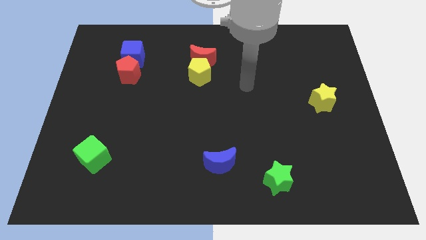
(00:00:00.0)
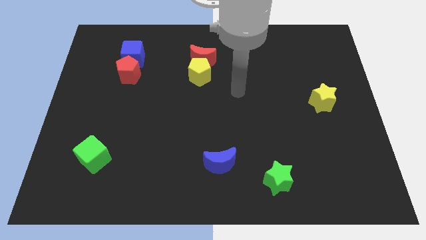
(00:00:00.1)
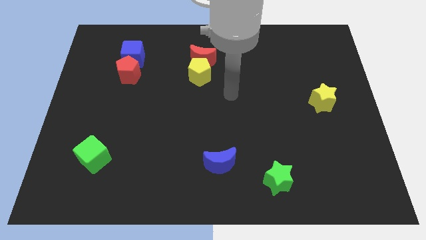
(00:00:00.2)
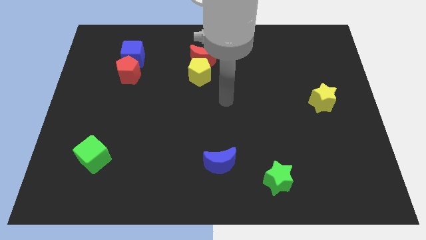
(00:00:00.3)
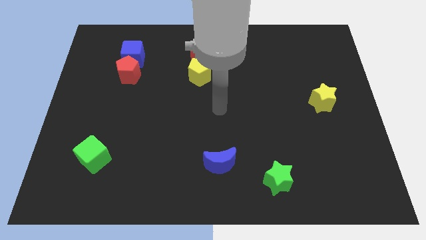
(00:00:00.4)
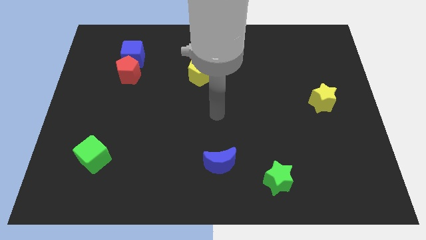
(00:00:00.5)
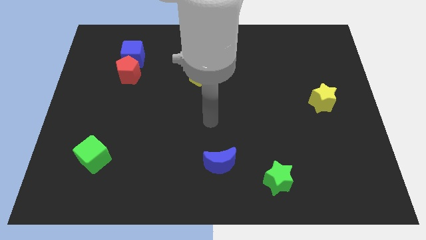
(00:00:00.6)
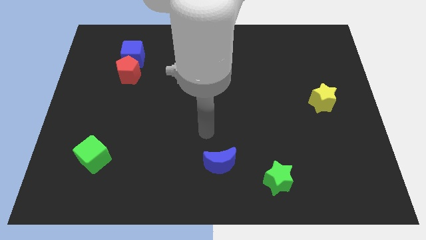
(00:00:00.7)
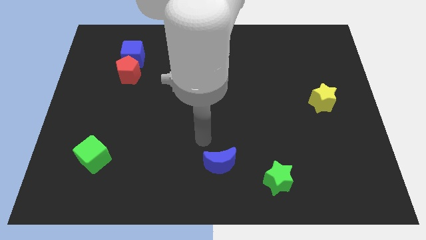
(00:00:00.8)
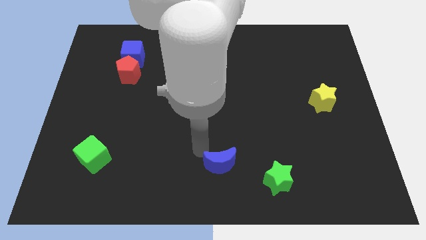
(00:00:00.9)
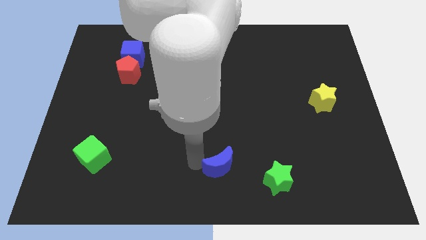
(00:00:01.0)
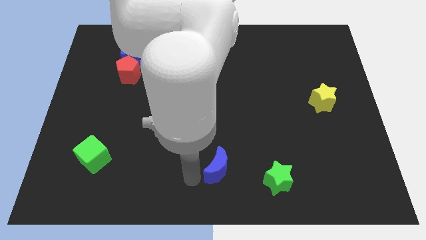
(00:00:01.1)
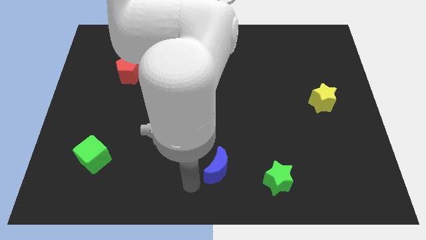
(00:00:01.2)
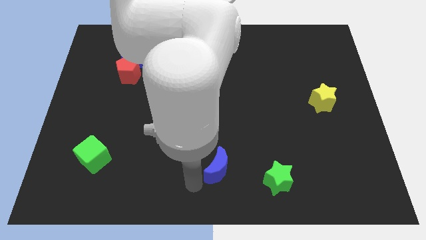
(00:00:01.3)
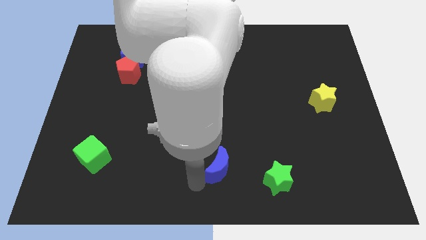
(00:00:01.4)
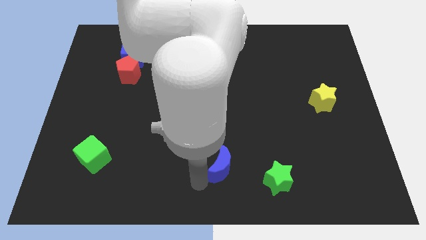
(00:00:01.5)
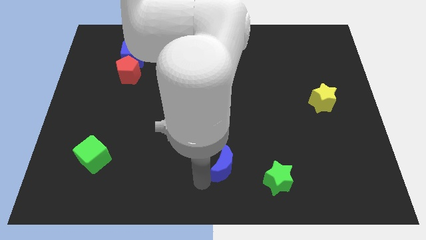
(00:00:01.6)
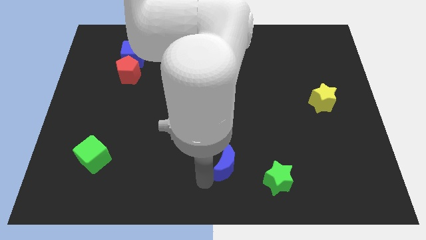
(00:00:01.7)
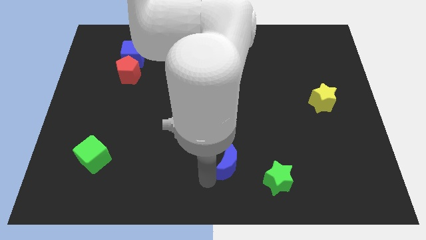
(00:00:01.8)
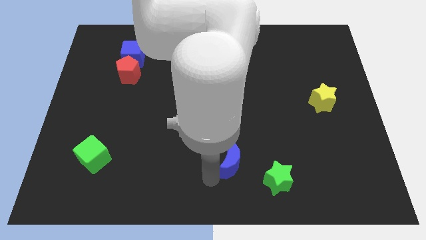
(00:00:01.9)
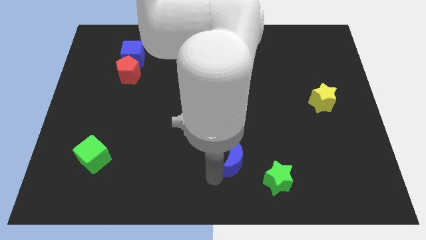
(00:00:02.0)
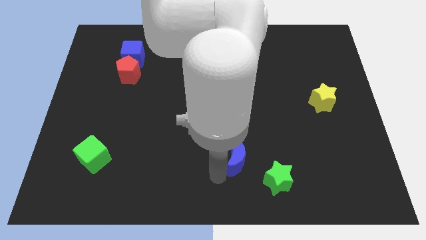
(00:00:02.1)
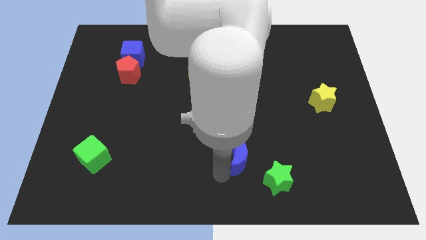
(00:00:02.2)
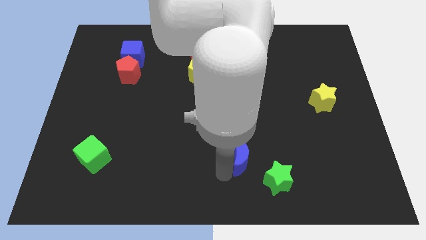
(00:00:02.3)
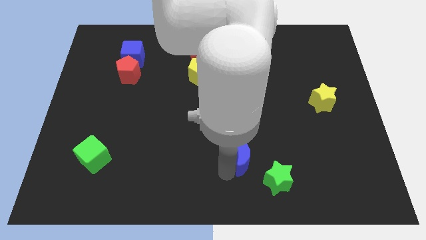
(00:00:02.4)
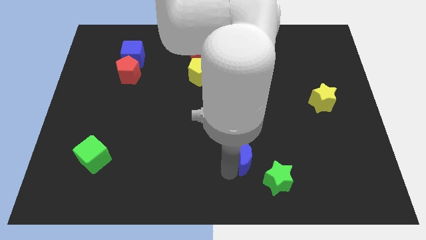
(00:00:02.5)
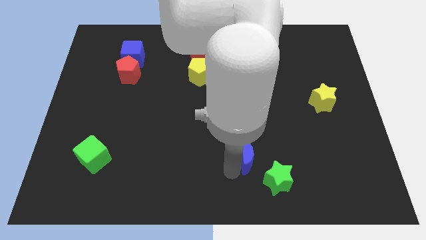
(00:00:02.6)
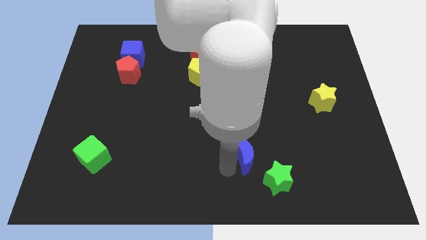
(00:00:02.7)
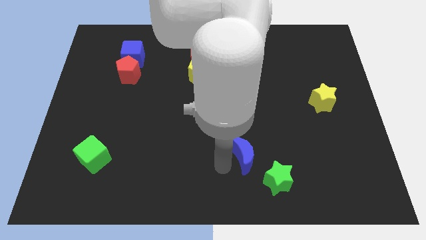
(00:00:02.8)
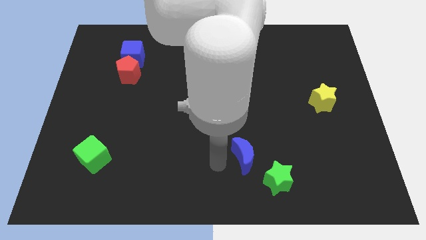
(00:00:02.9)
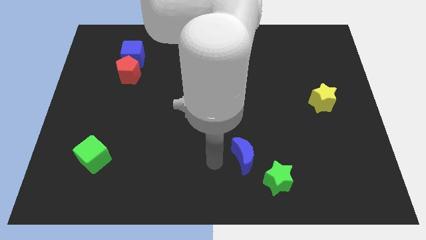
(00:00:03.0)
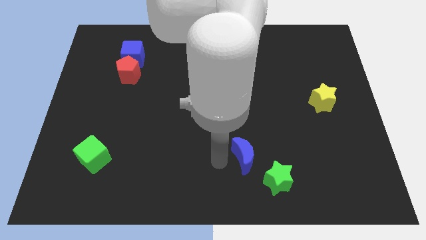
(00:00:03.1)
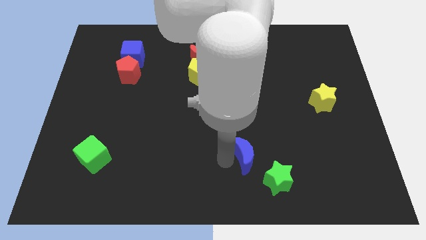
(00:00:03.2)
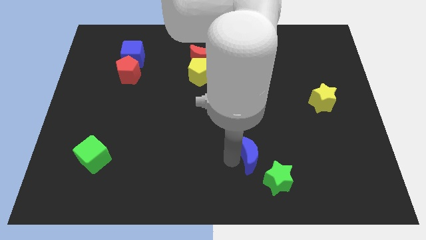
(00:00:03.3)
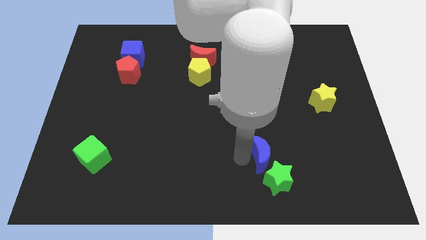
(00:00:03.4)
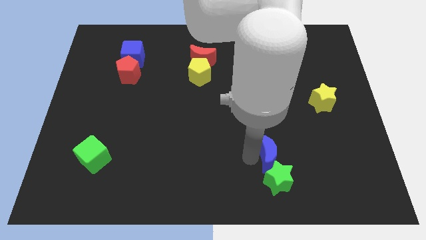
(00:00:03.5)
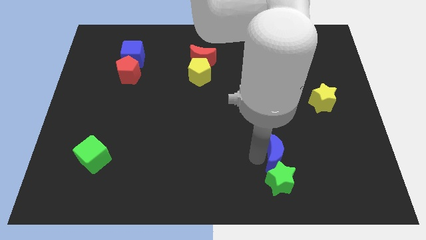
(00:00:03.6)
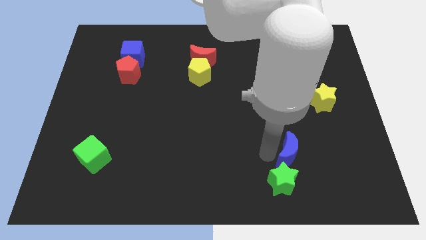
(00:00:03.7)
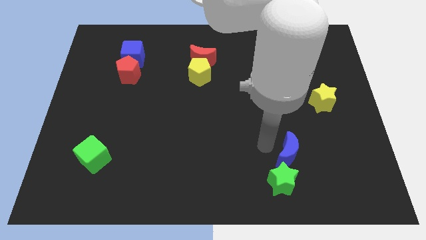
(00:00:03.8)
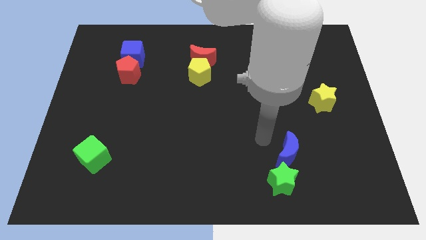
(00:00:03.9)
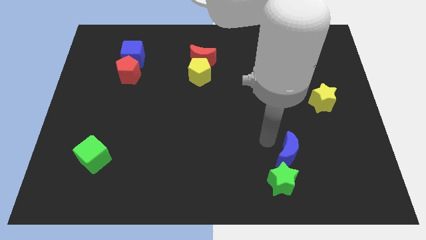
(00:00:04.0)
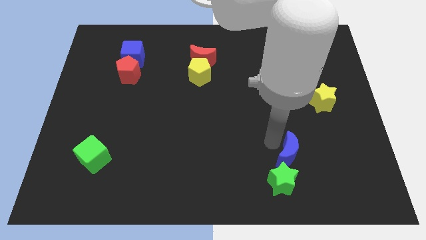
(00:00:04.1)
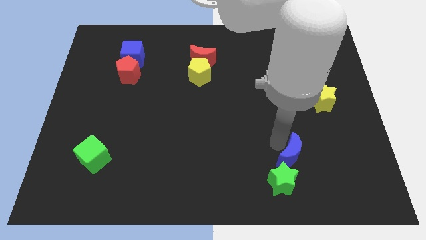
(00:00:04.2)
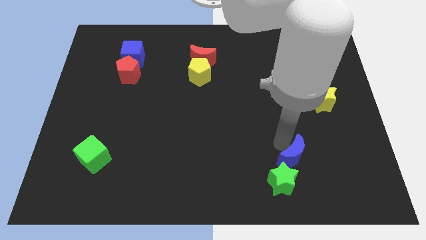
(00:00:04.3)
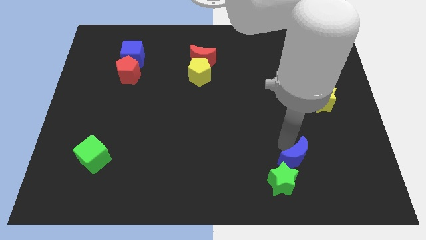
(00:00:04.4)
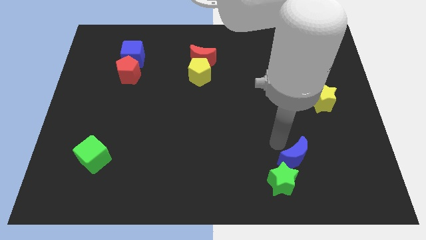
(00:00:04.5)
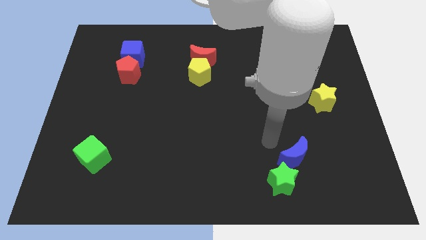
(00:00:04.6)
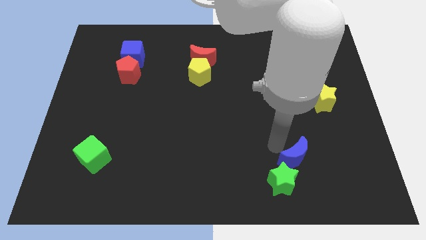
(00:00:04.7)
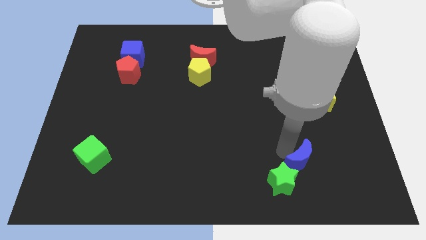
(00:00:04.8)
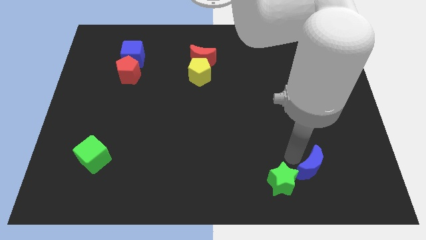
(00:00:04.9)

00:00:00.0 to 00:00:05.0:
push the blue moon just right of the green star

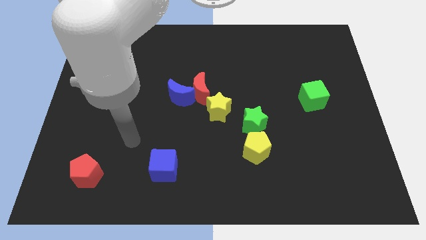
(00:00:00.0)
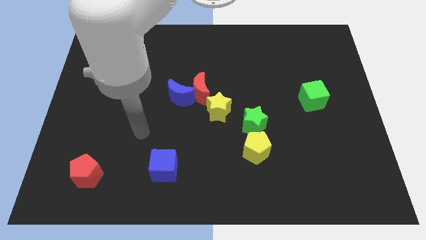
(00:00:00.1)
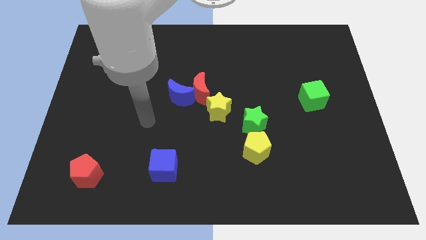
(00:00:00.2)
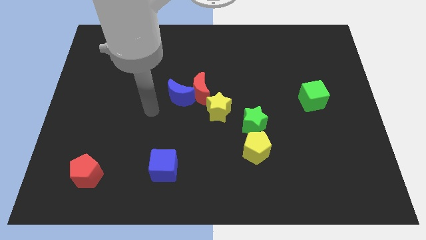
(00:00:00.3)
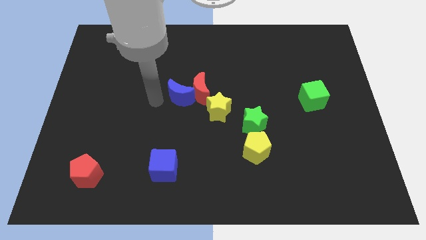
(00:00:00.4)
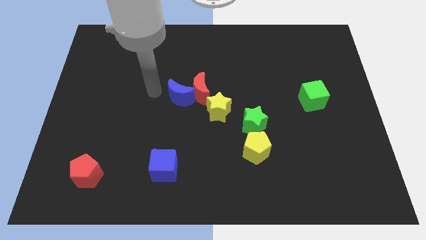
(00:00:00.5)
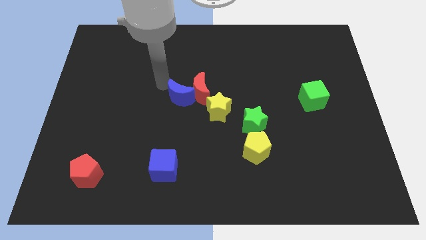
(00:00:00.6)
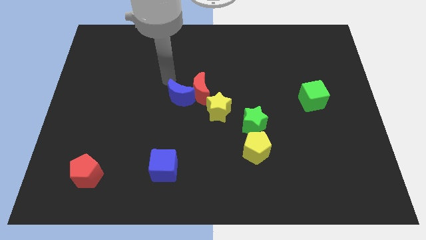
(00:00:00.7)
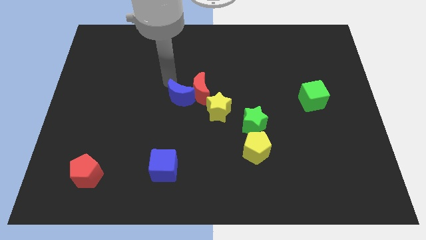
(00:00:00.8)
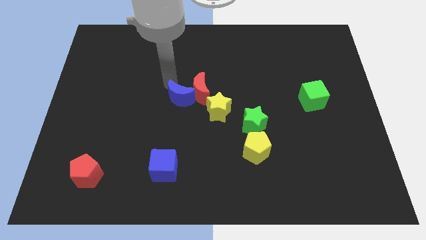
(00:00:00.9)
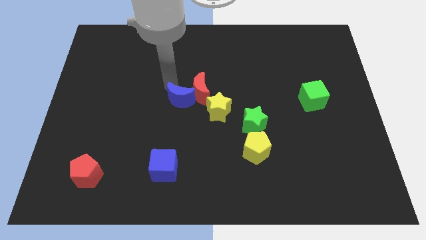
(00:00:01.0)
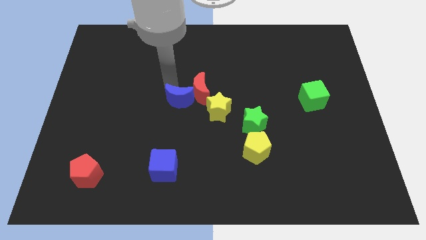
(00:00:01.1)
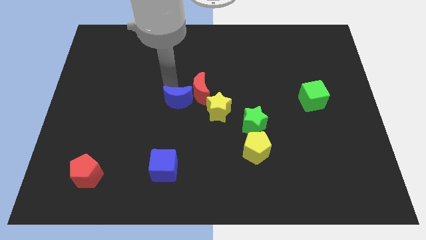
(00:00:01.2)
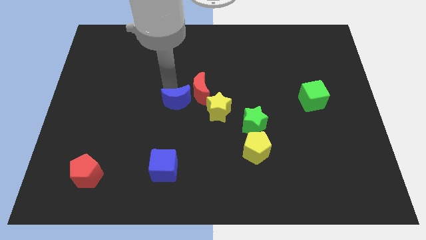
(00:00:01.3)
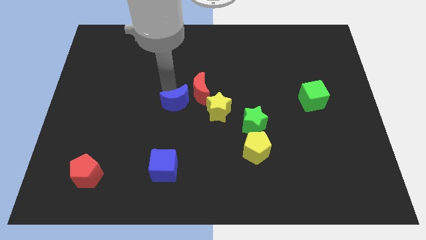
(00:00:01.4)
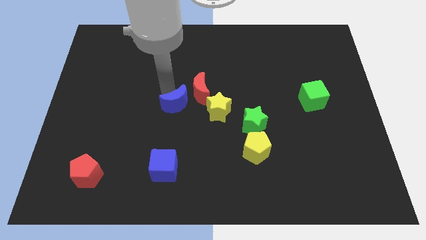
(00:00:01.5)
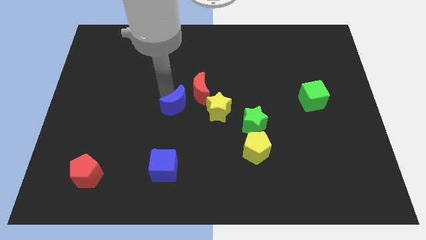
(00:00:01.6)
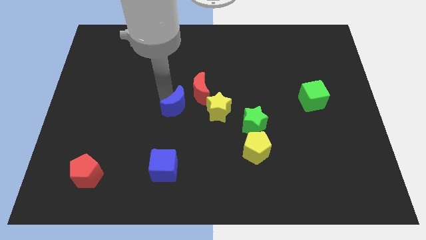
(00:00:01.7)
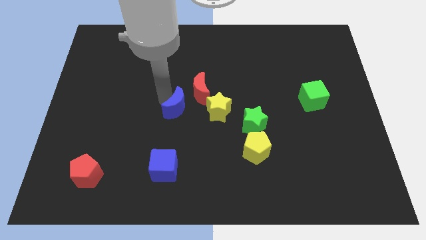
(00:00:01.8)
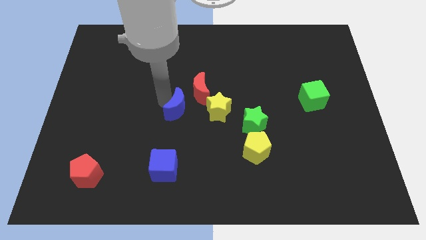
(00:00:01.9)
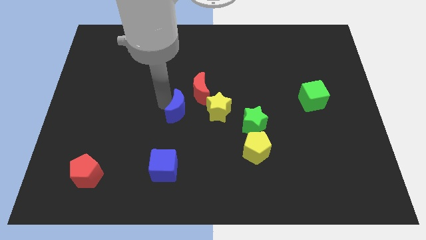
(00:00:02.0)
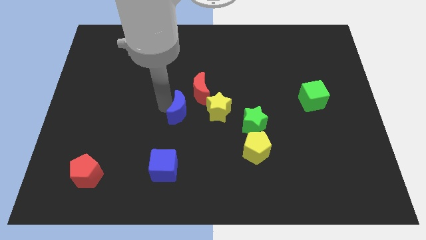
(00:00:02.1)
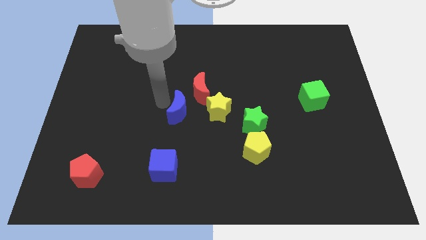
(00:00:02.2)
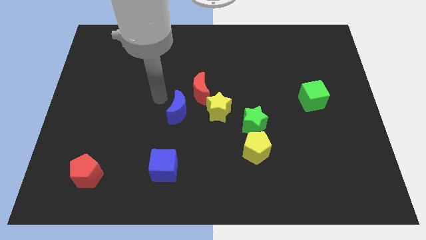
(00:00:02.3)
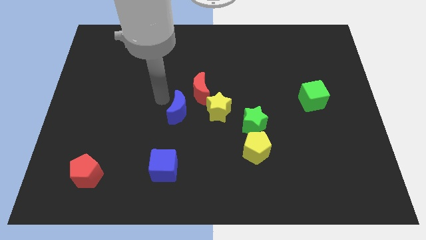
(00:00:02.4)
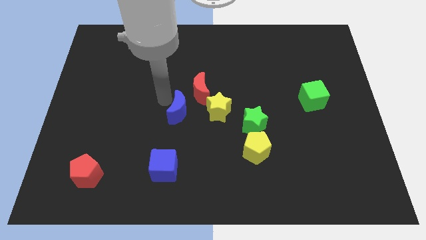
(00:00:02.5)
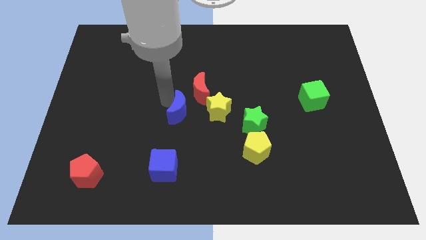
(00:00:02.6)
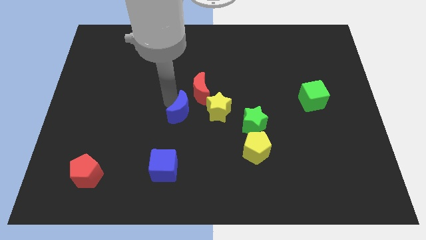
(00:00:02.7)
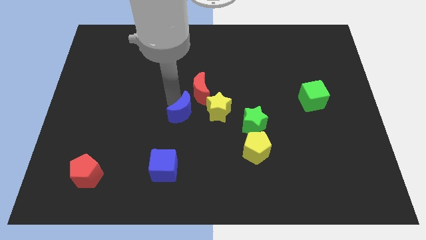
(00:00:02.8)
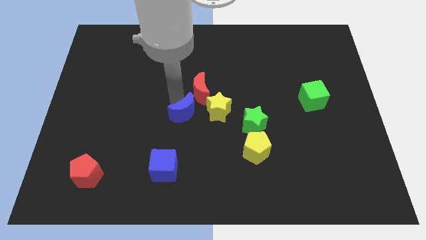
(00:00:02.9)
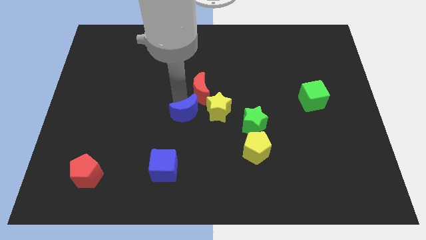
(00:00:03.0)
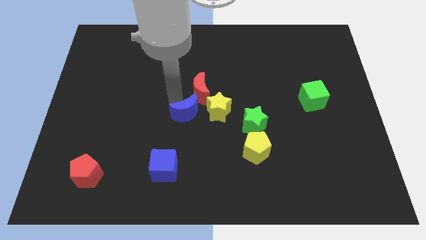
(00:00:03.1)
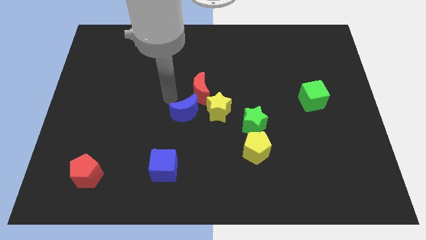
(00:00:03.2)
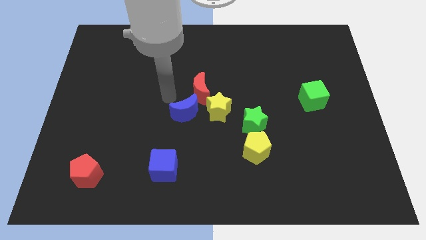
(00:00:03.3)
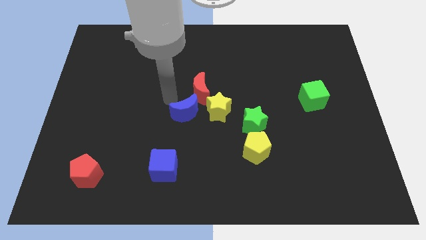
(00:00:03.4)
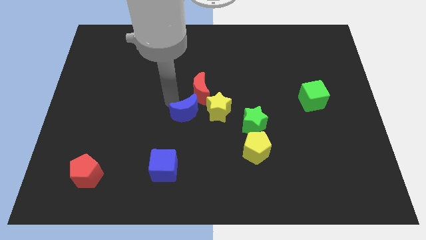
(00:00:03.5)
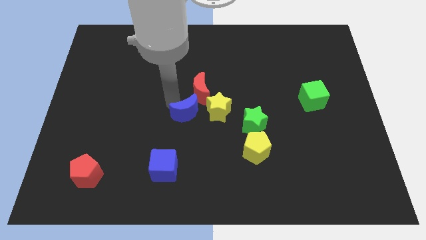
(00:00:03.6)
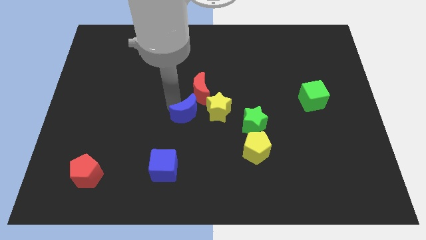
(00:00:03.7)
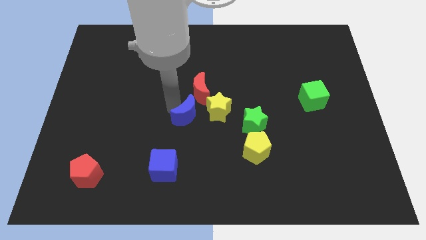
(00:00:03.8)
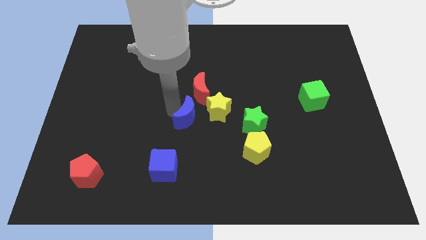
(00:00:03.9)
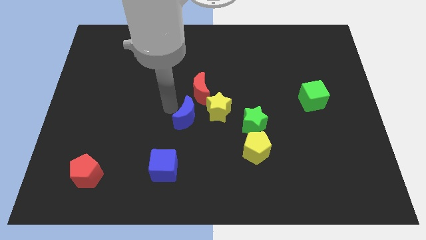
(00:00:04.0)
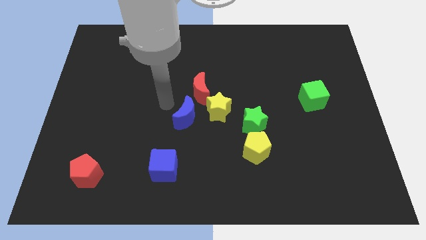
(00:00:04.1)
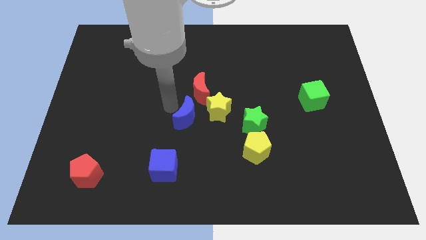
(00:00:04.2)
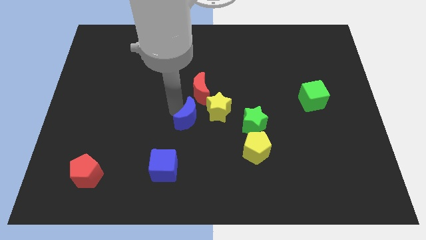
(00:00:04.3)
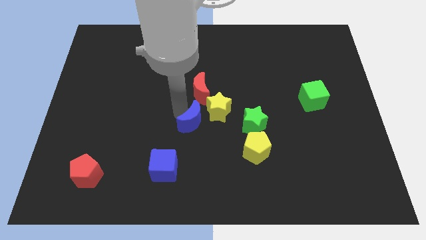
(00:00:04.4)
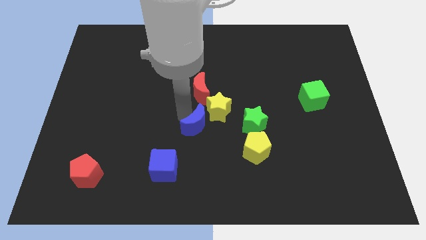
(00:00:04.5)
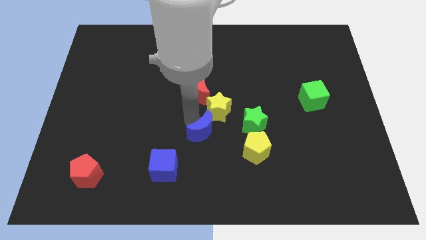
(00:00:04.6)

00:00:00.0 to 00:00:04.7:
slide the blue moon below the yellow star
